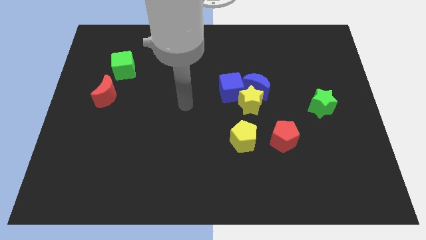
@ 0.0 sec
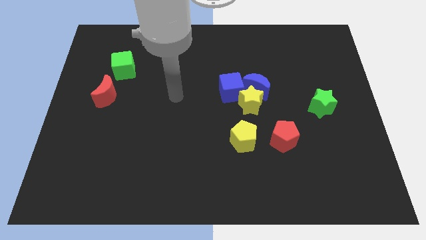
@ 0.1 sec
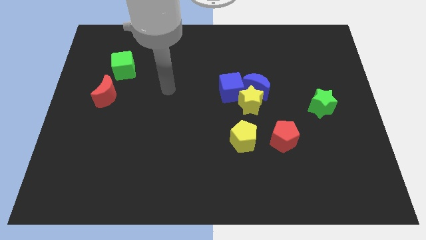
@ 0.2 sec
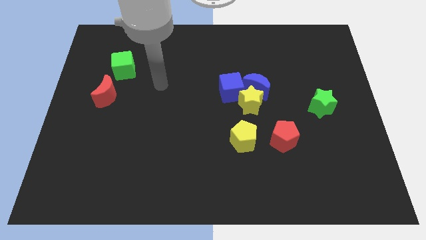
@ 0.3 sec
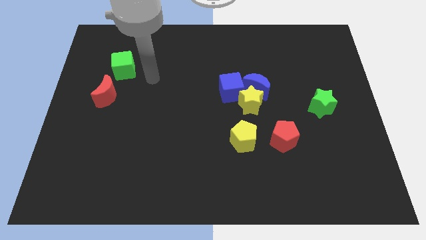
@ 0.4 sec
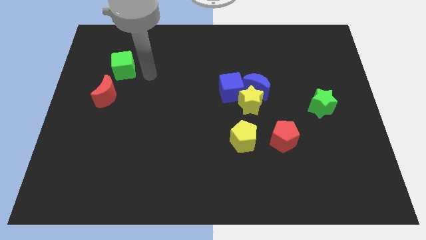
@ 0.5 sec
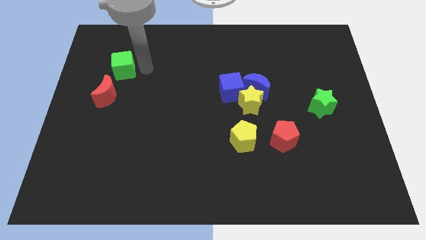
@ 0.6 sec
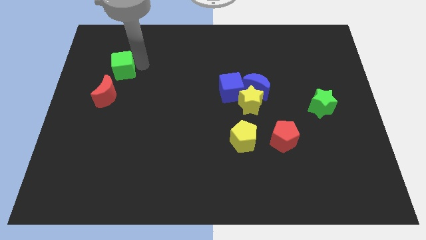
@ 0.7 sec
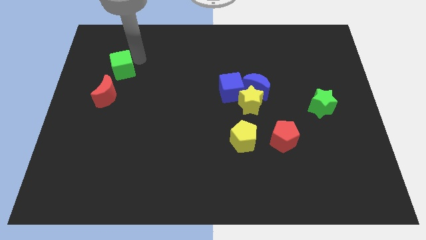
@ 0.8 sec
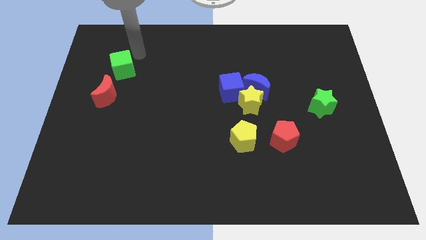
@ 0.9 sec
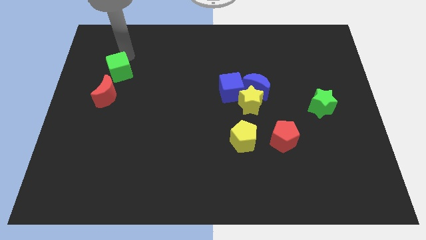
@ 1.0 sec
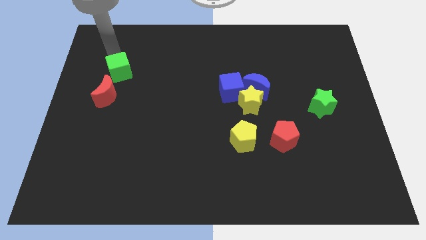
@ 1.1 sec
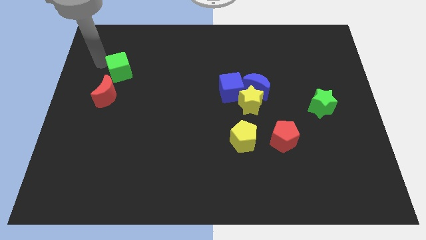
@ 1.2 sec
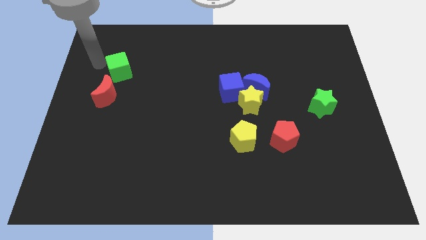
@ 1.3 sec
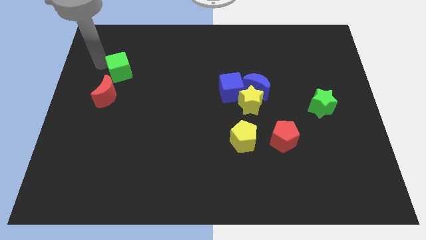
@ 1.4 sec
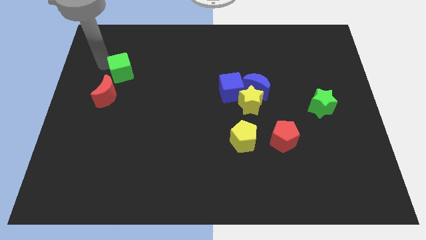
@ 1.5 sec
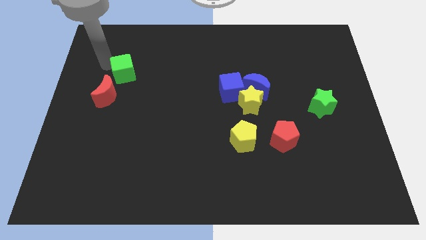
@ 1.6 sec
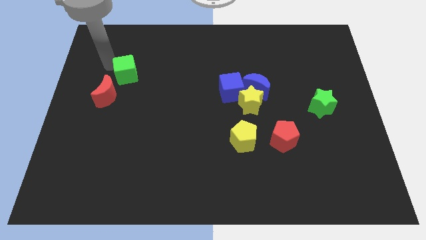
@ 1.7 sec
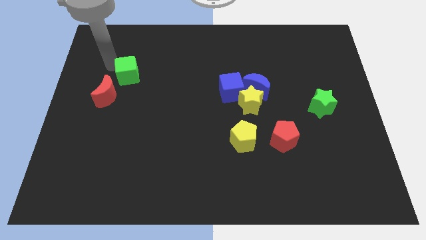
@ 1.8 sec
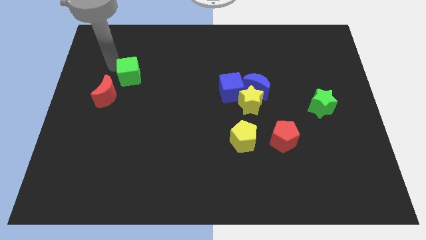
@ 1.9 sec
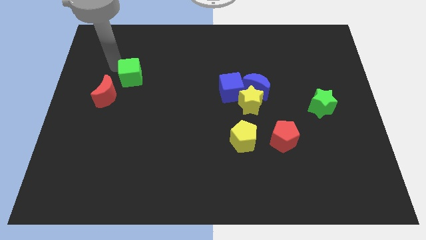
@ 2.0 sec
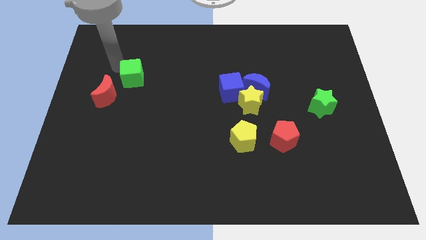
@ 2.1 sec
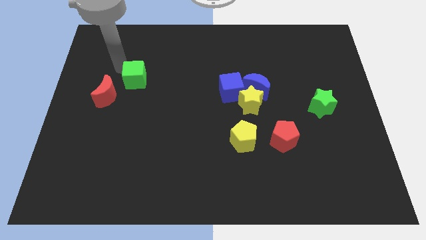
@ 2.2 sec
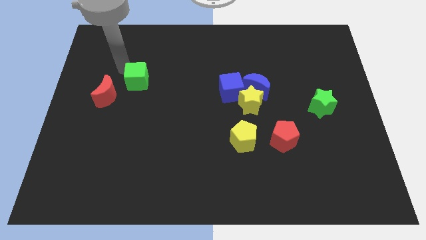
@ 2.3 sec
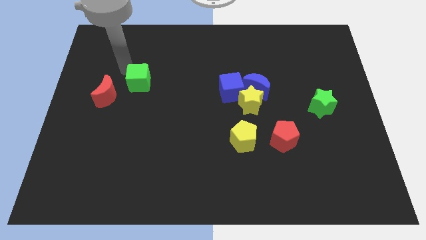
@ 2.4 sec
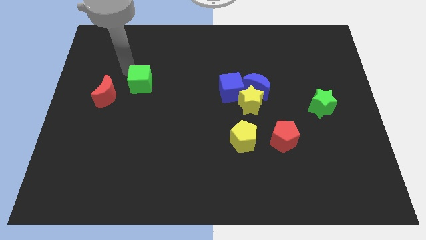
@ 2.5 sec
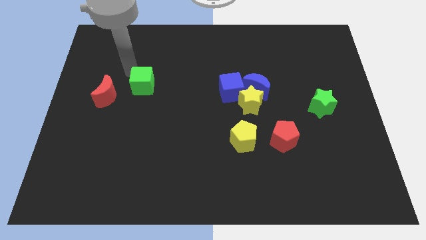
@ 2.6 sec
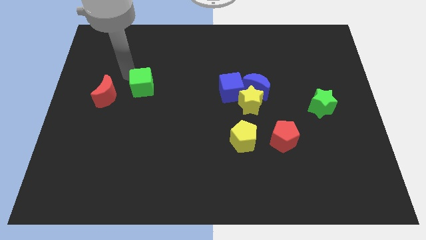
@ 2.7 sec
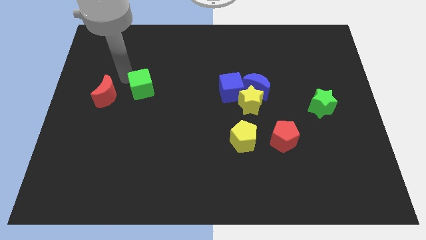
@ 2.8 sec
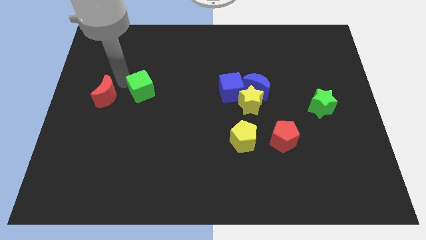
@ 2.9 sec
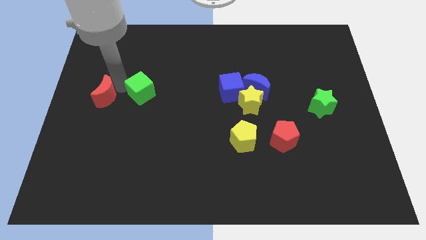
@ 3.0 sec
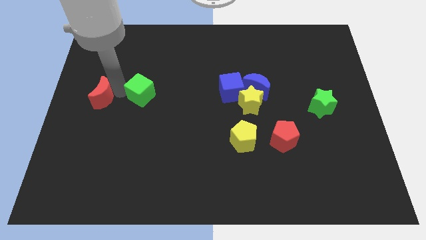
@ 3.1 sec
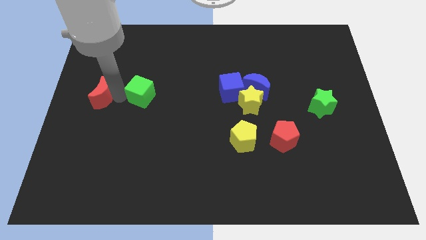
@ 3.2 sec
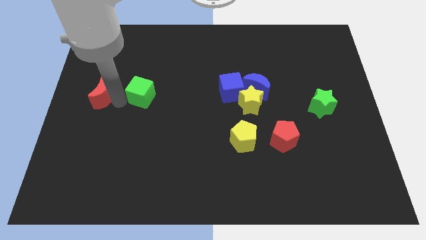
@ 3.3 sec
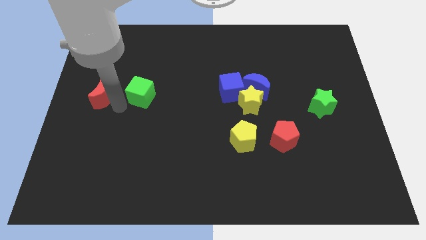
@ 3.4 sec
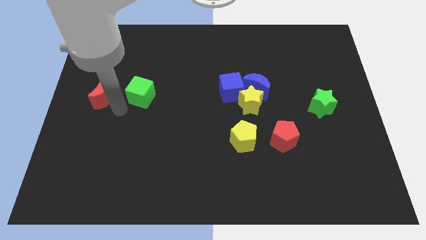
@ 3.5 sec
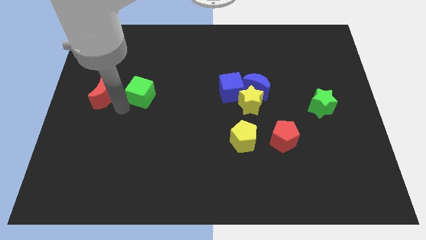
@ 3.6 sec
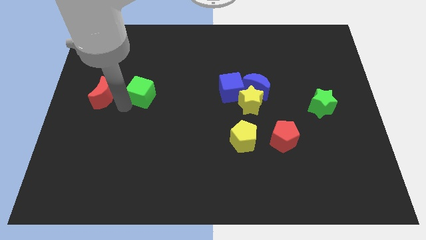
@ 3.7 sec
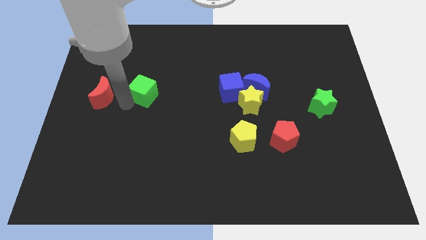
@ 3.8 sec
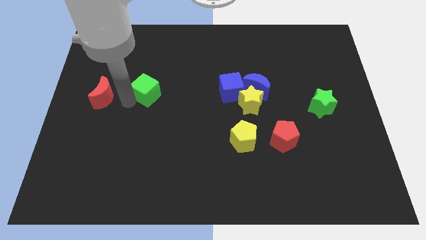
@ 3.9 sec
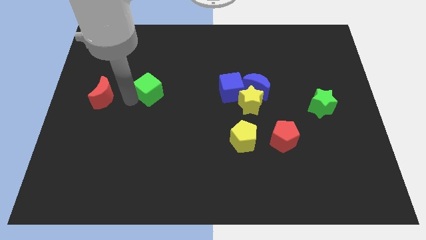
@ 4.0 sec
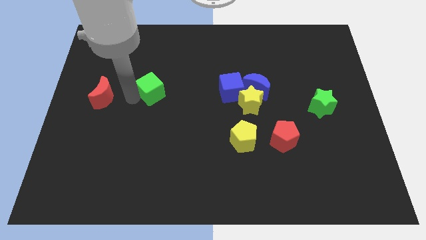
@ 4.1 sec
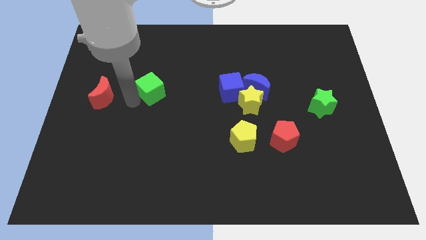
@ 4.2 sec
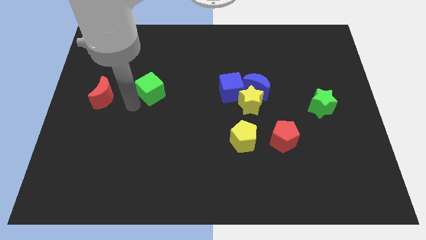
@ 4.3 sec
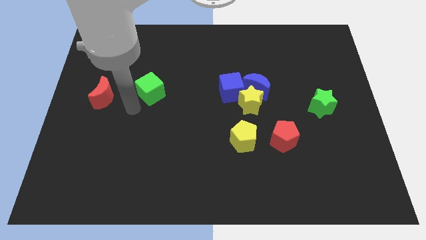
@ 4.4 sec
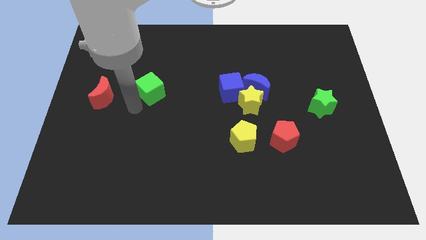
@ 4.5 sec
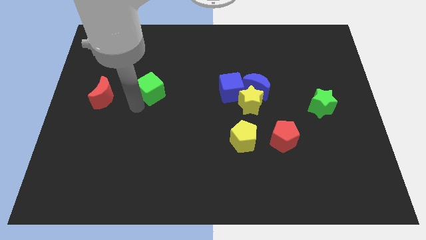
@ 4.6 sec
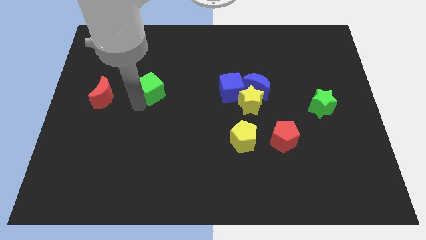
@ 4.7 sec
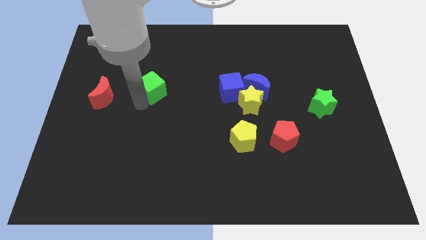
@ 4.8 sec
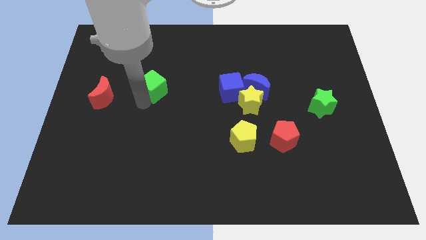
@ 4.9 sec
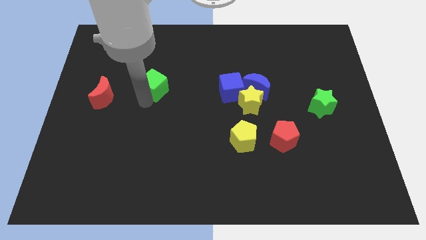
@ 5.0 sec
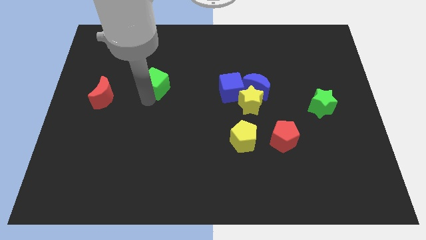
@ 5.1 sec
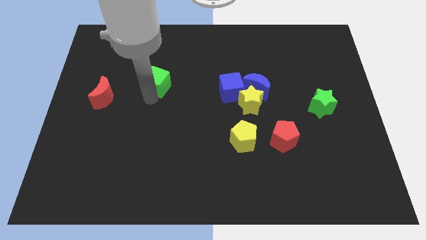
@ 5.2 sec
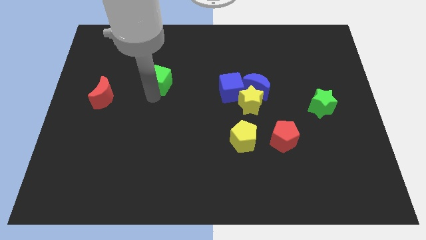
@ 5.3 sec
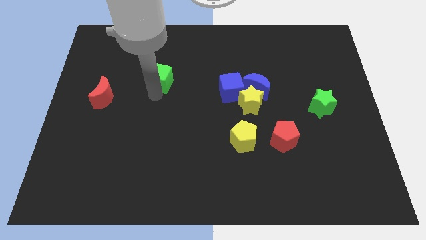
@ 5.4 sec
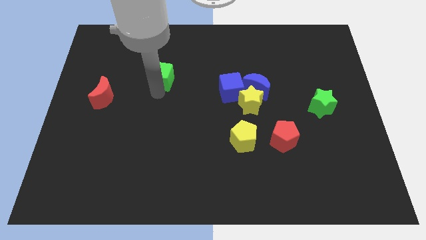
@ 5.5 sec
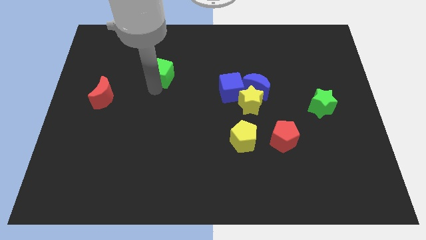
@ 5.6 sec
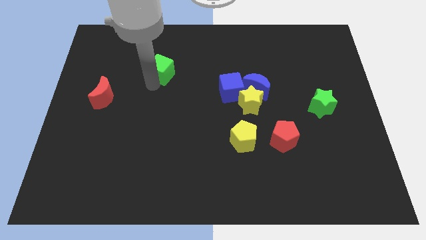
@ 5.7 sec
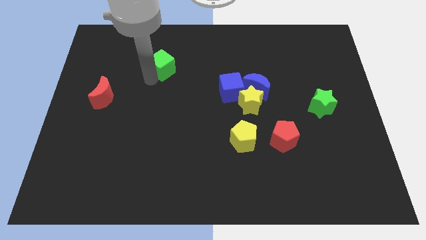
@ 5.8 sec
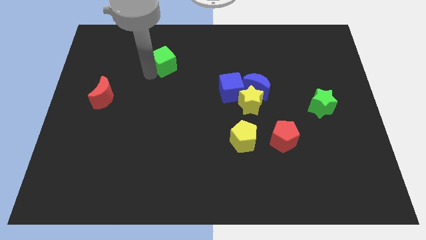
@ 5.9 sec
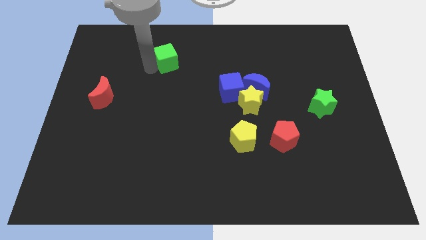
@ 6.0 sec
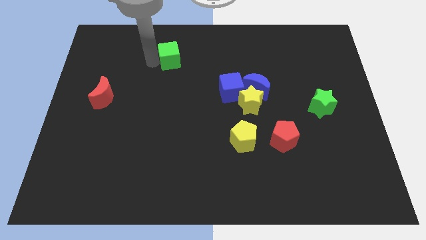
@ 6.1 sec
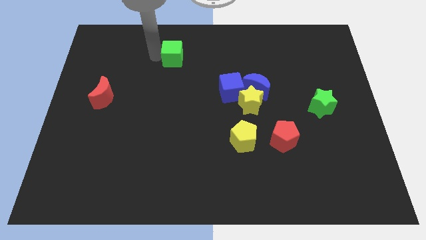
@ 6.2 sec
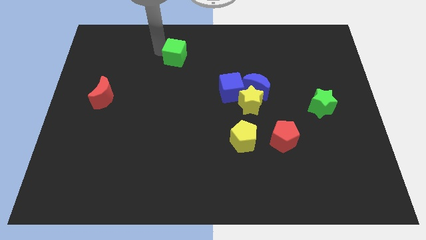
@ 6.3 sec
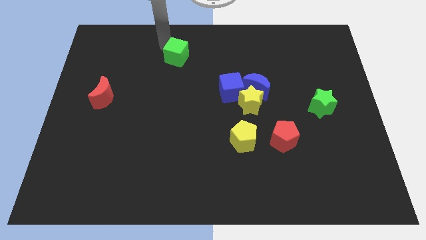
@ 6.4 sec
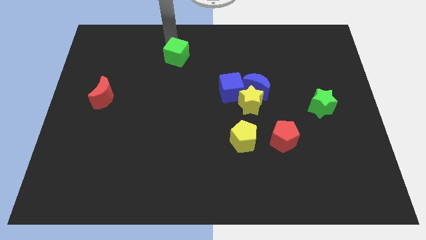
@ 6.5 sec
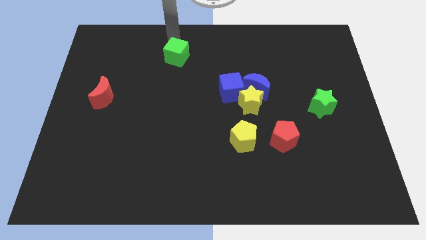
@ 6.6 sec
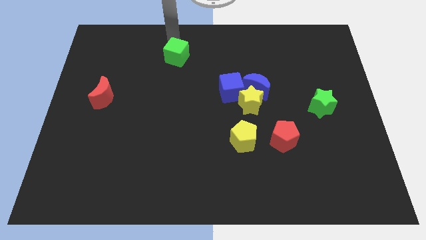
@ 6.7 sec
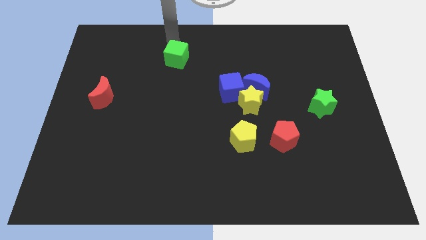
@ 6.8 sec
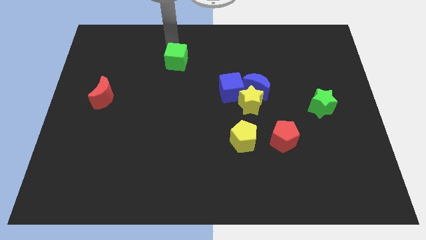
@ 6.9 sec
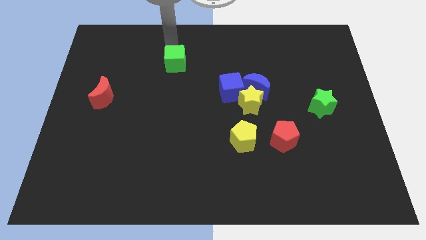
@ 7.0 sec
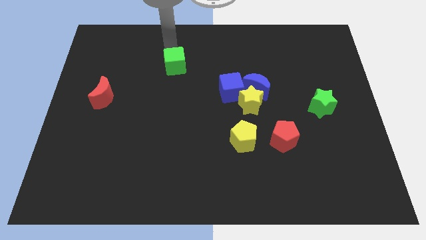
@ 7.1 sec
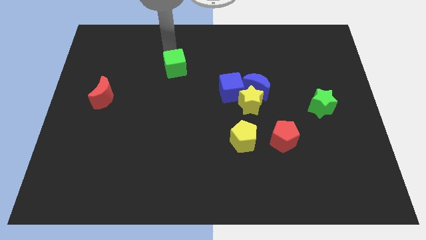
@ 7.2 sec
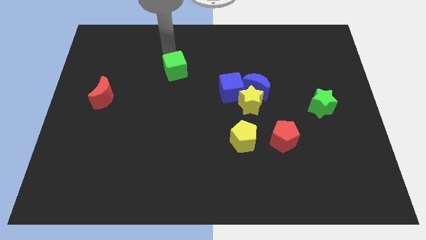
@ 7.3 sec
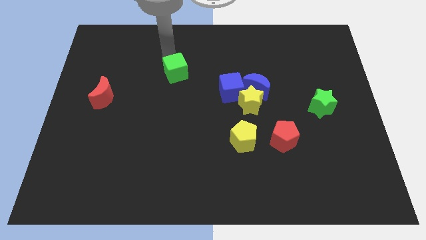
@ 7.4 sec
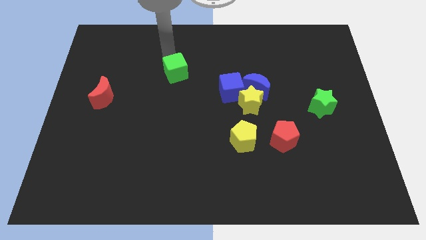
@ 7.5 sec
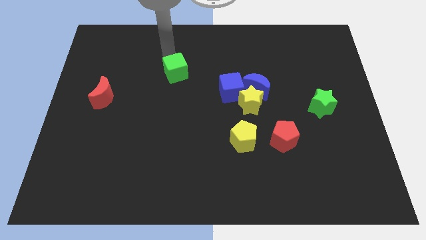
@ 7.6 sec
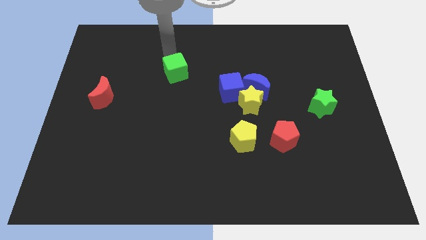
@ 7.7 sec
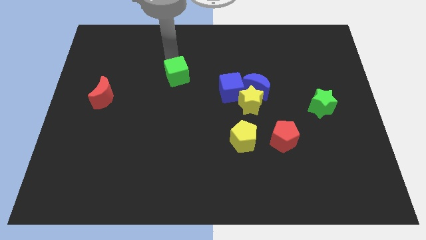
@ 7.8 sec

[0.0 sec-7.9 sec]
move the green cube to the middle of the board
